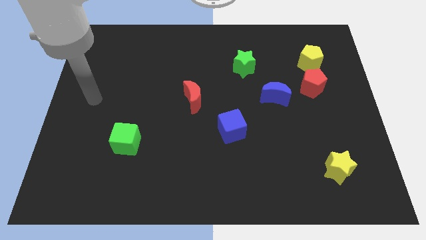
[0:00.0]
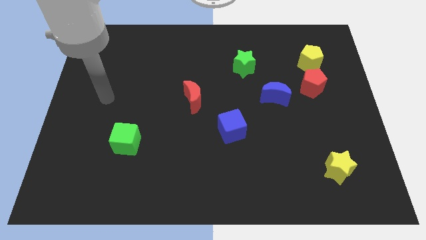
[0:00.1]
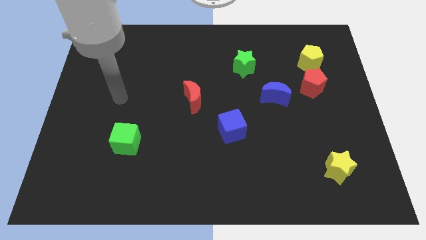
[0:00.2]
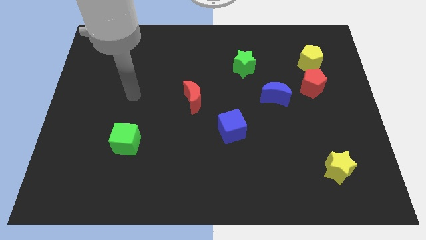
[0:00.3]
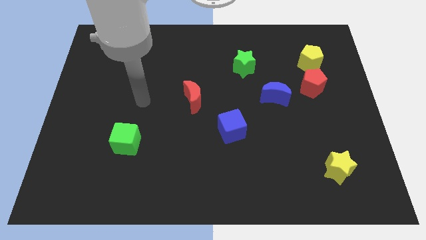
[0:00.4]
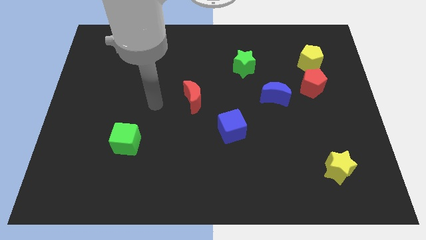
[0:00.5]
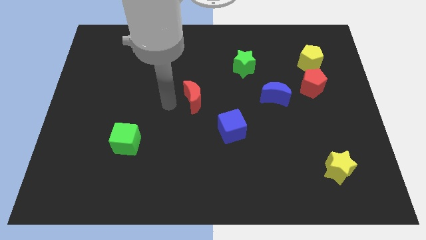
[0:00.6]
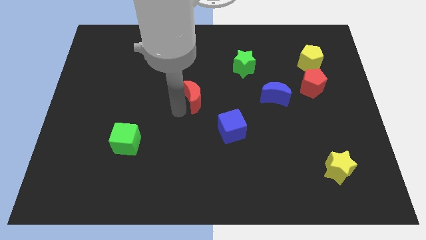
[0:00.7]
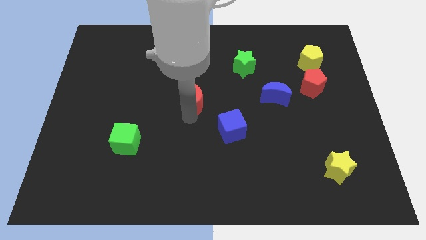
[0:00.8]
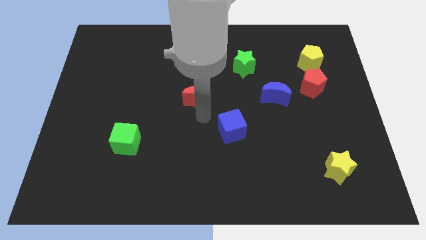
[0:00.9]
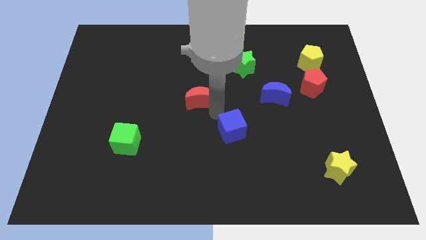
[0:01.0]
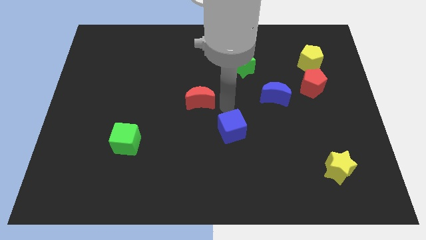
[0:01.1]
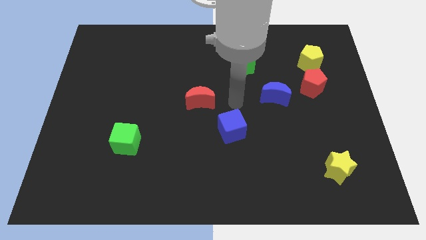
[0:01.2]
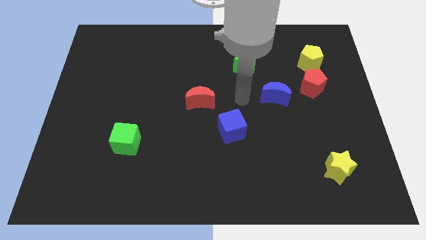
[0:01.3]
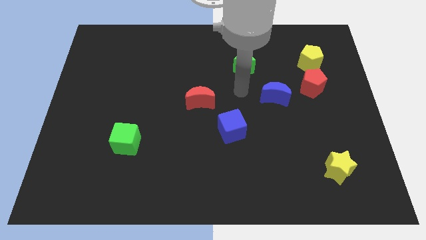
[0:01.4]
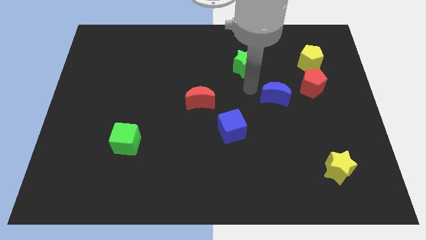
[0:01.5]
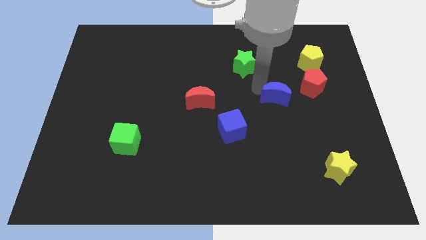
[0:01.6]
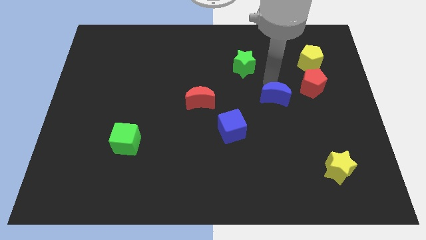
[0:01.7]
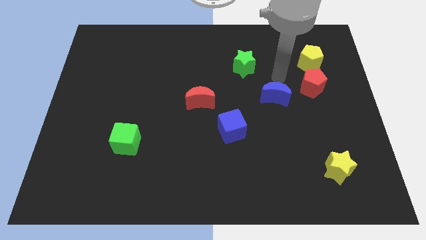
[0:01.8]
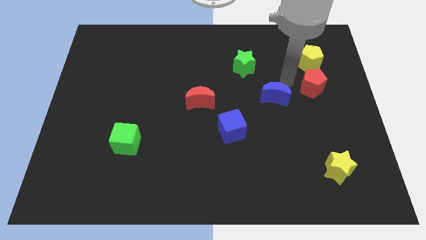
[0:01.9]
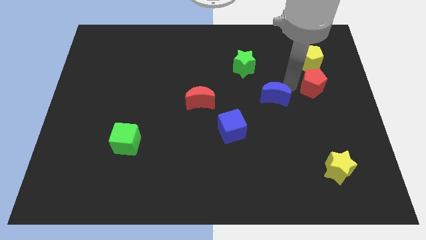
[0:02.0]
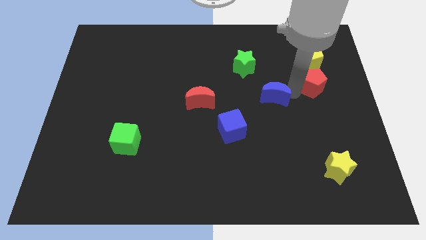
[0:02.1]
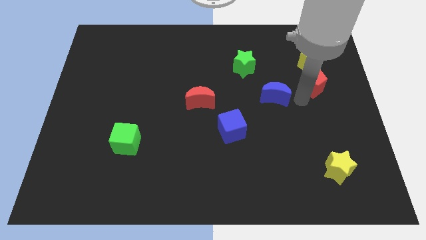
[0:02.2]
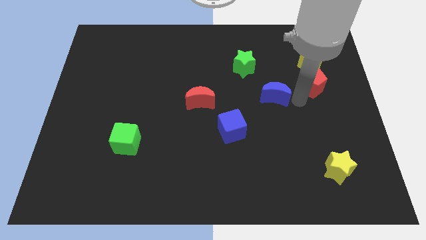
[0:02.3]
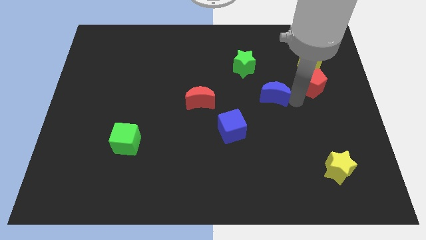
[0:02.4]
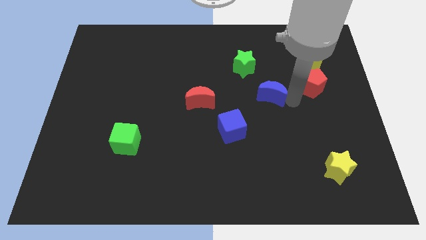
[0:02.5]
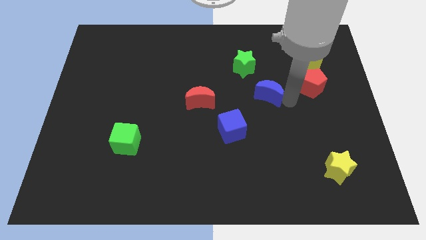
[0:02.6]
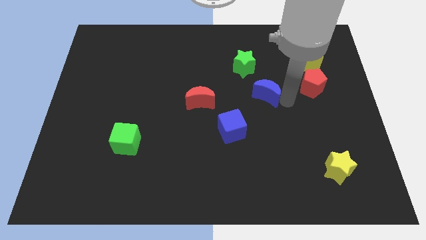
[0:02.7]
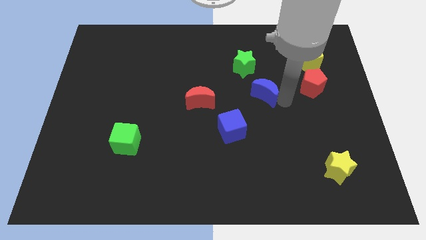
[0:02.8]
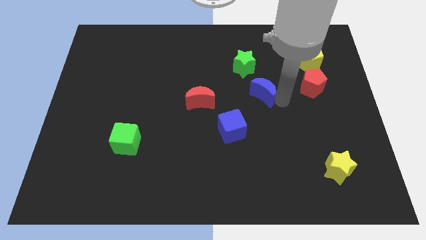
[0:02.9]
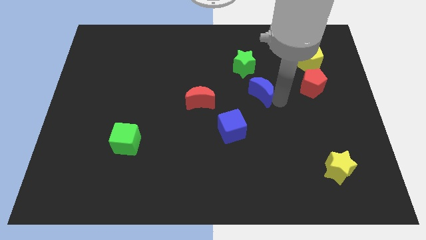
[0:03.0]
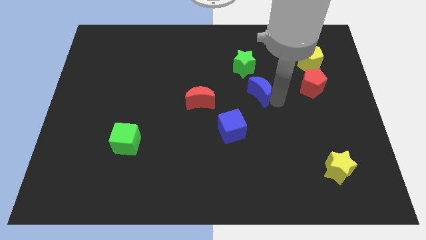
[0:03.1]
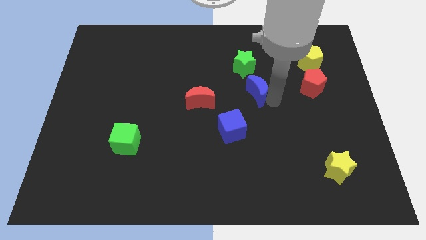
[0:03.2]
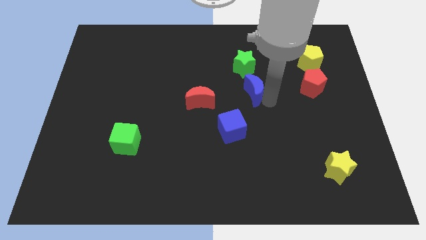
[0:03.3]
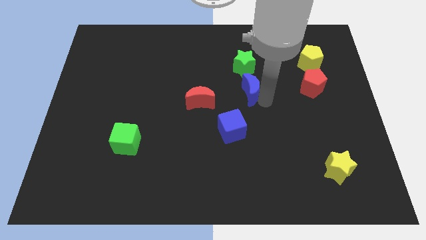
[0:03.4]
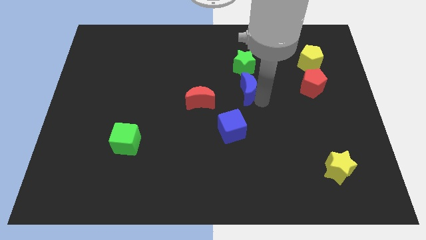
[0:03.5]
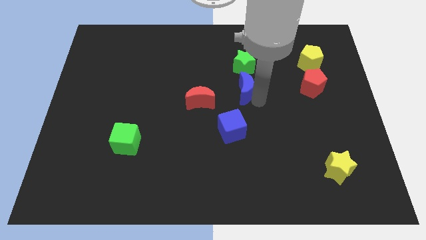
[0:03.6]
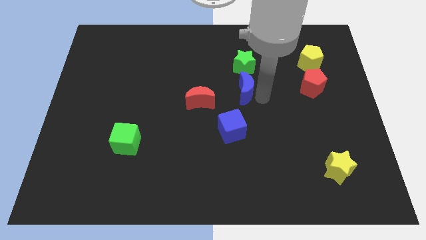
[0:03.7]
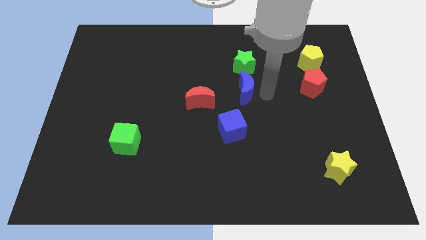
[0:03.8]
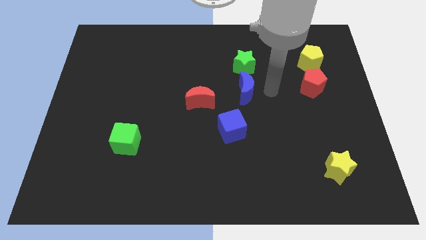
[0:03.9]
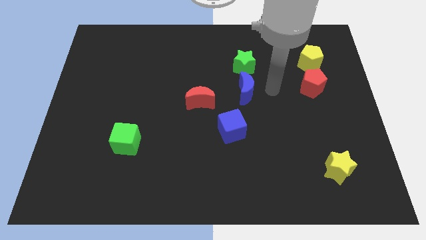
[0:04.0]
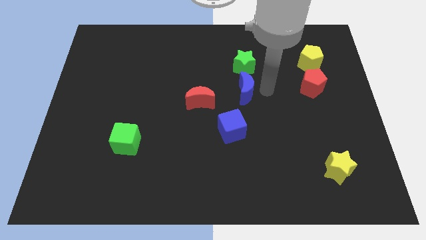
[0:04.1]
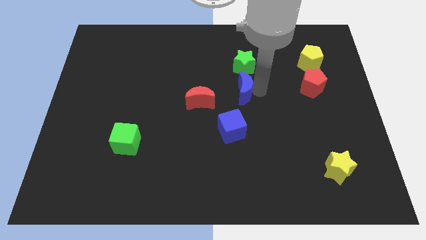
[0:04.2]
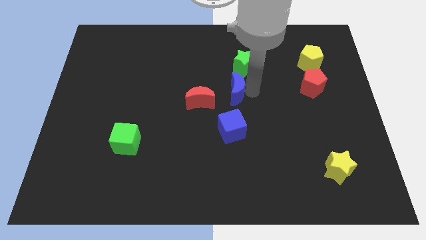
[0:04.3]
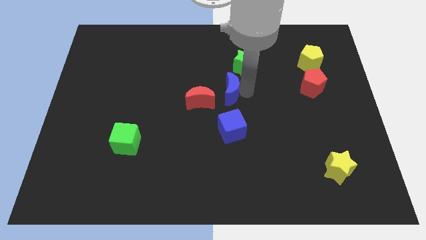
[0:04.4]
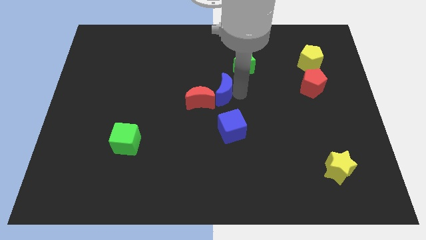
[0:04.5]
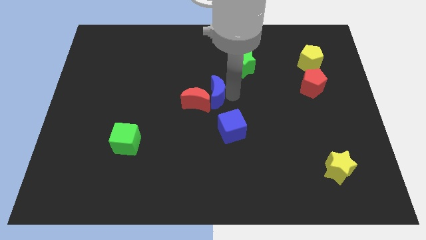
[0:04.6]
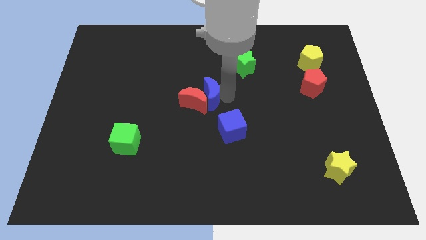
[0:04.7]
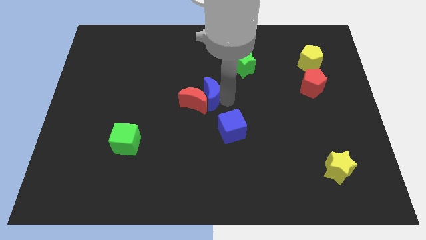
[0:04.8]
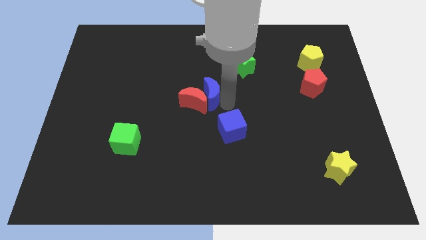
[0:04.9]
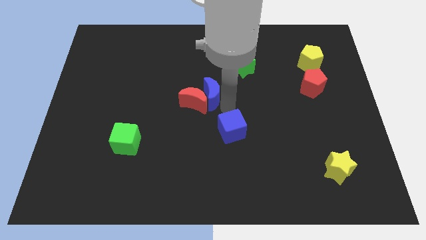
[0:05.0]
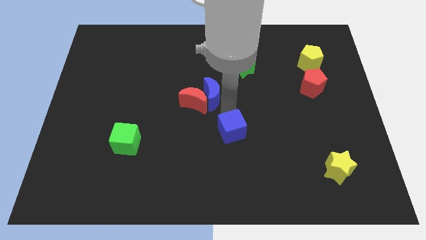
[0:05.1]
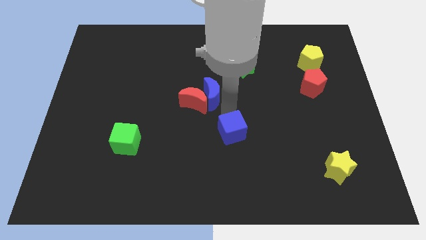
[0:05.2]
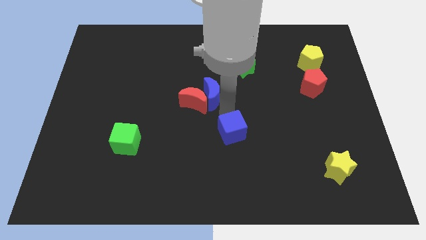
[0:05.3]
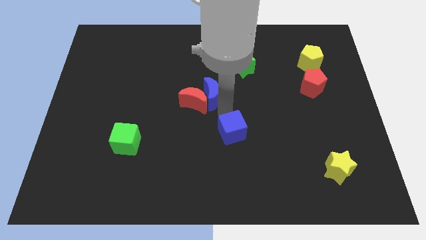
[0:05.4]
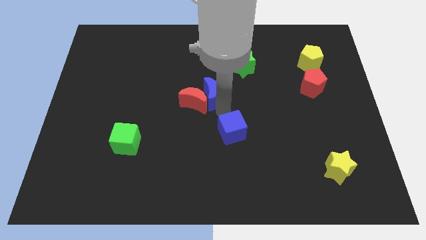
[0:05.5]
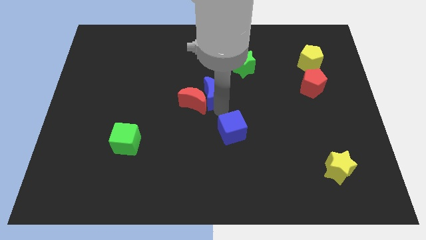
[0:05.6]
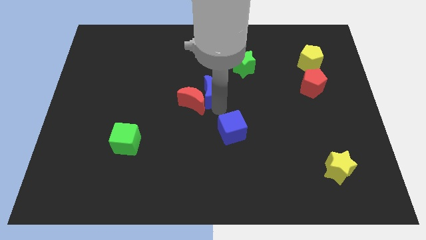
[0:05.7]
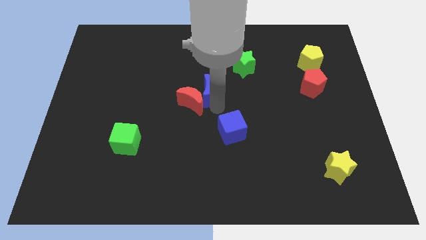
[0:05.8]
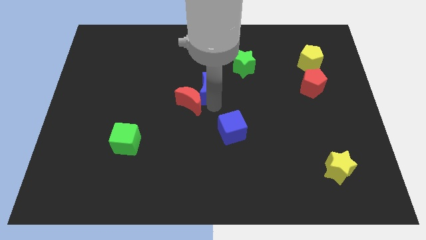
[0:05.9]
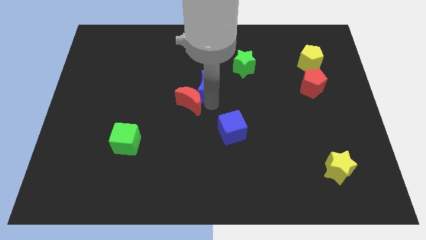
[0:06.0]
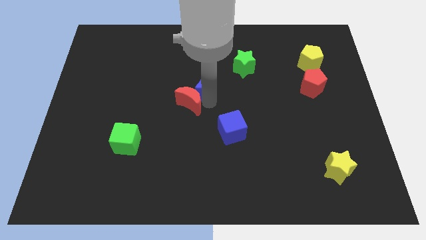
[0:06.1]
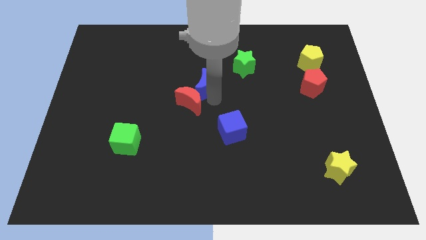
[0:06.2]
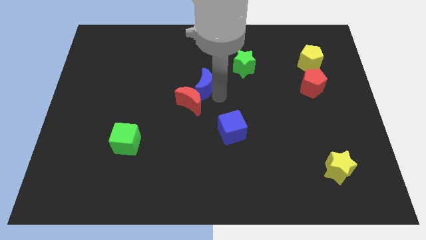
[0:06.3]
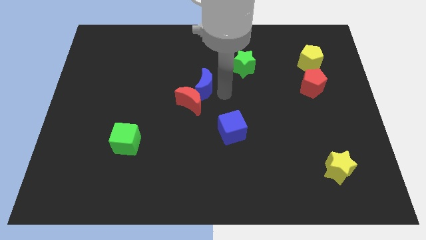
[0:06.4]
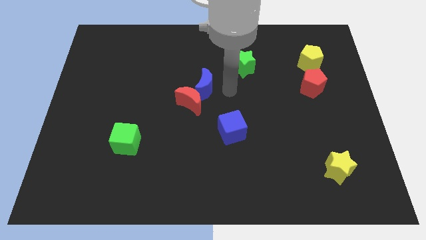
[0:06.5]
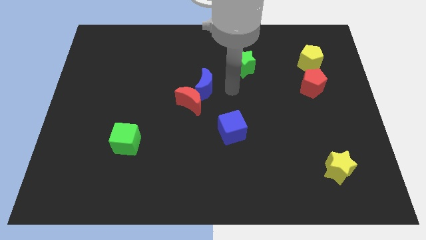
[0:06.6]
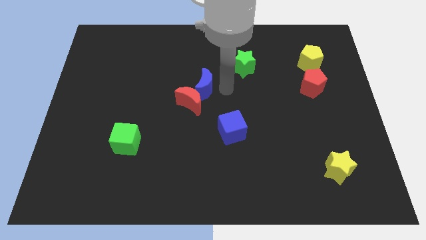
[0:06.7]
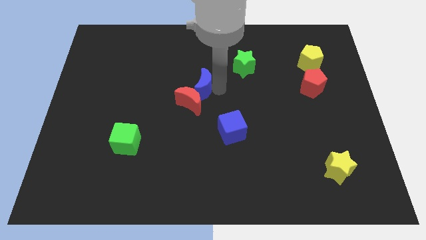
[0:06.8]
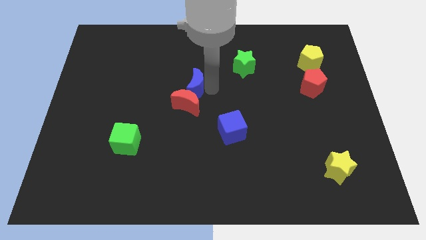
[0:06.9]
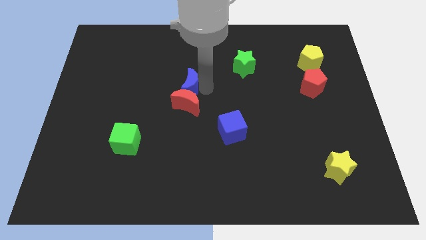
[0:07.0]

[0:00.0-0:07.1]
move the blue moon to the left

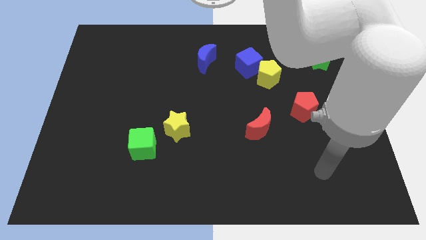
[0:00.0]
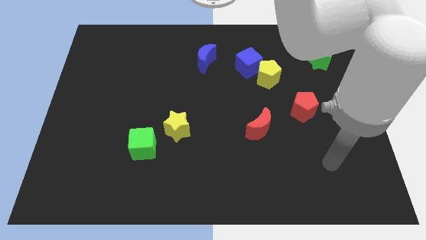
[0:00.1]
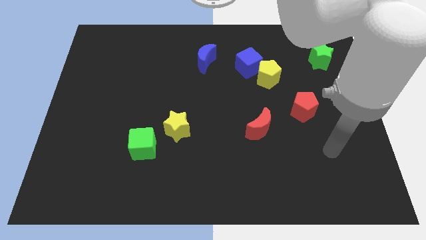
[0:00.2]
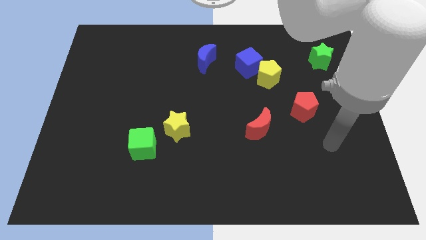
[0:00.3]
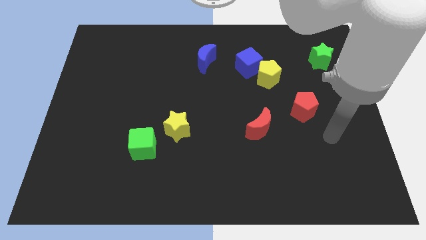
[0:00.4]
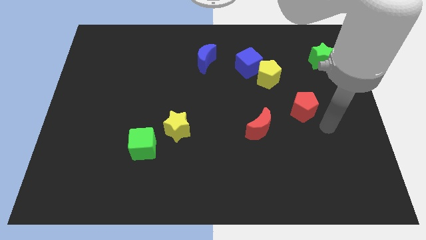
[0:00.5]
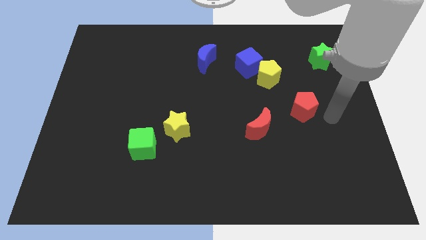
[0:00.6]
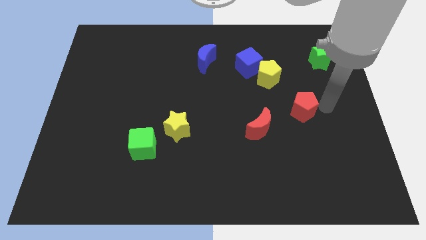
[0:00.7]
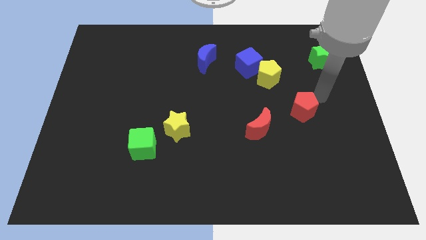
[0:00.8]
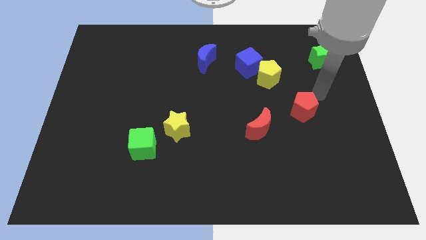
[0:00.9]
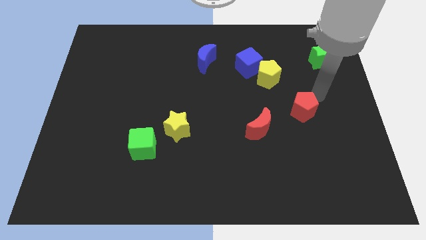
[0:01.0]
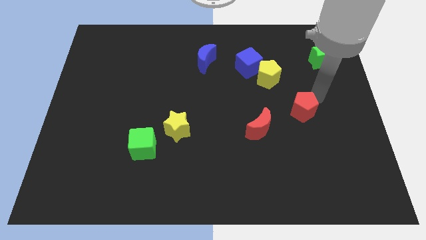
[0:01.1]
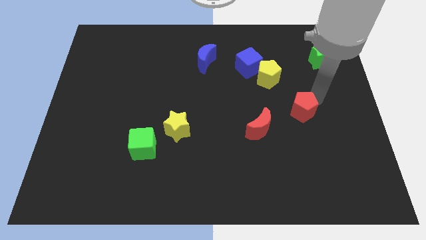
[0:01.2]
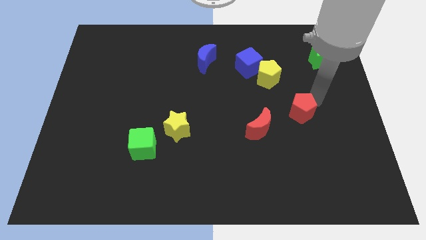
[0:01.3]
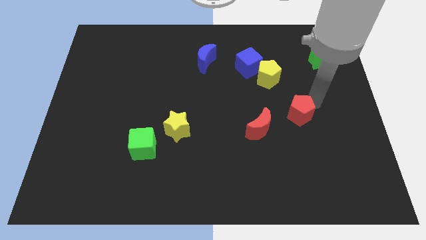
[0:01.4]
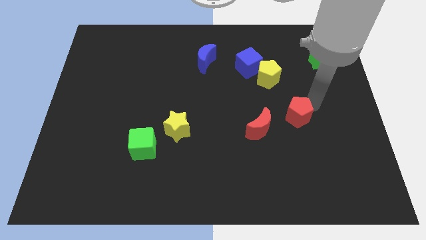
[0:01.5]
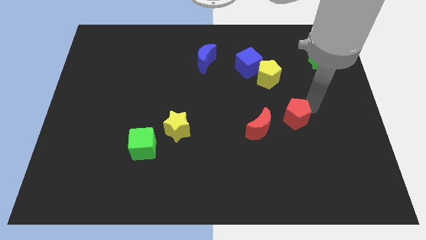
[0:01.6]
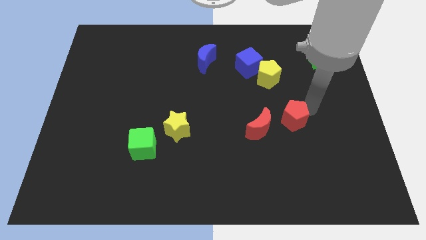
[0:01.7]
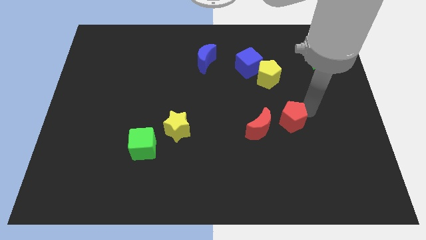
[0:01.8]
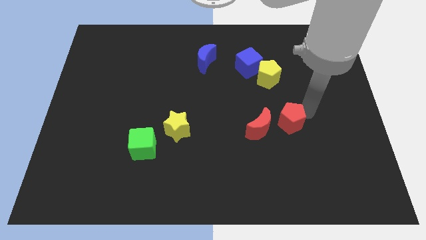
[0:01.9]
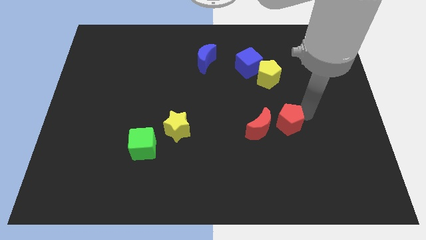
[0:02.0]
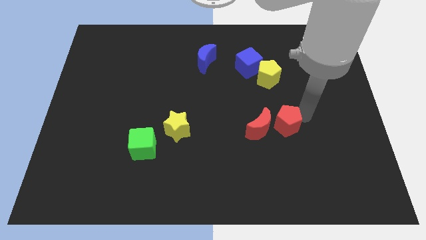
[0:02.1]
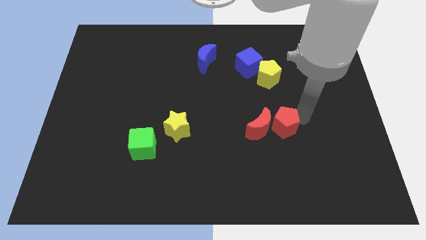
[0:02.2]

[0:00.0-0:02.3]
slightly slide the red pentagon down and to the left diagonally
